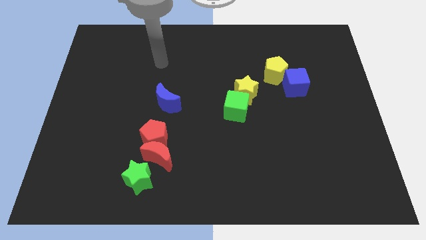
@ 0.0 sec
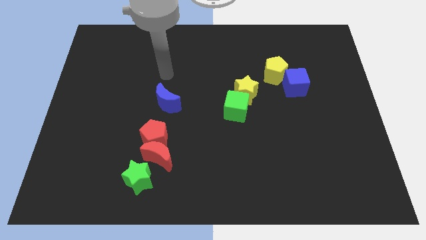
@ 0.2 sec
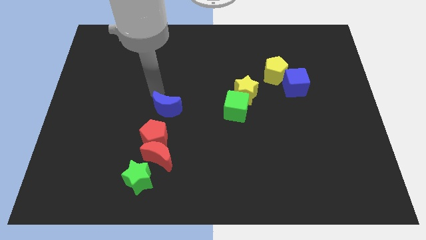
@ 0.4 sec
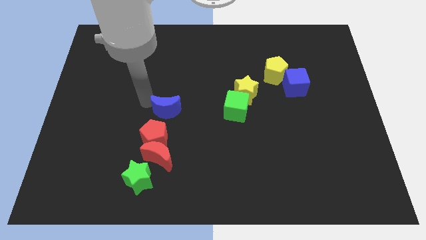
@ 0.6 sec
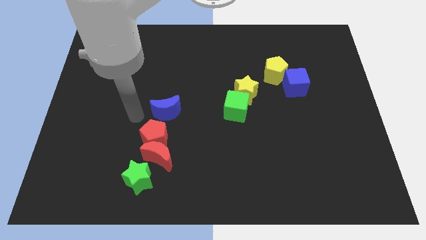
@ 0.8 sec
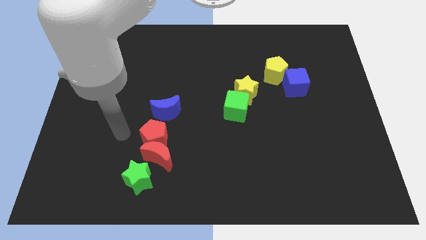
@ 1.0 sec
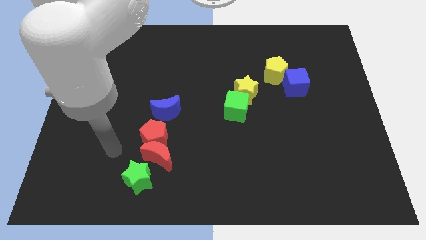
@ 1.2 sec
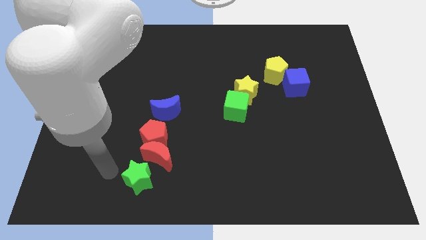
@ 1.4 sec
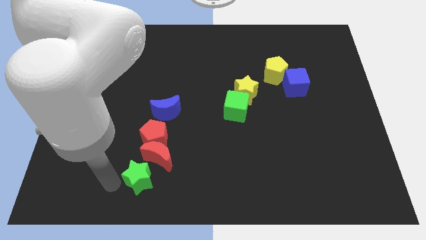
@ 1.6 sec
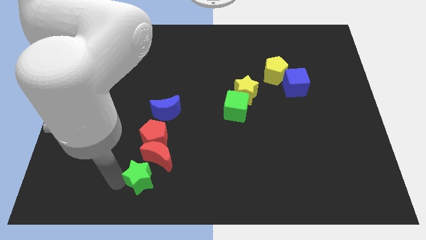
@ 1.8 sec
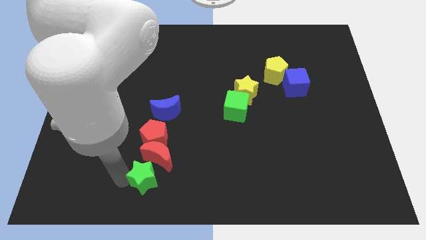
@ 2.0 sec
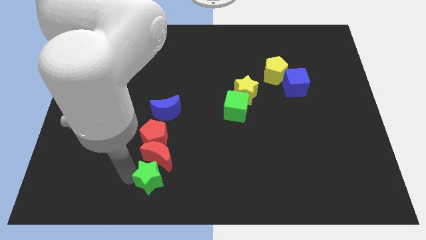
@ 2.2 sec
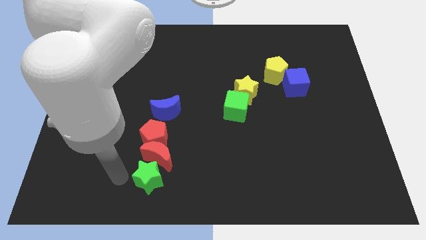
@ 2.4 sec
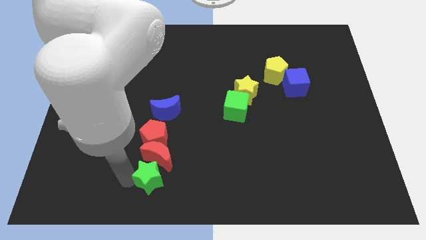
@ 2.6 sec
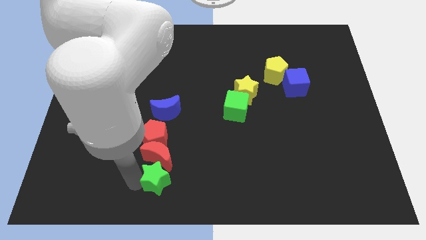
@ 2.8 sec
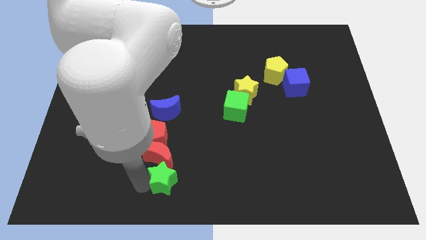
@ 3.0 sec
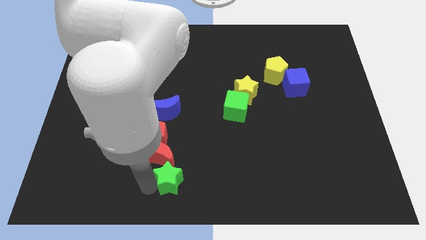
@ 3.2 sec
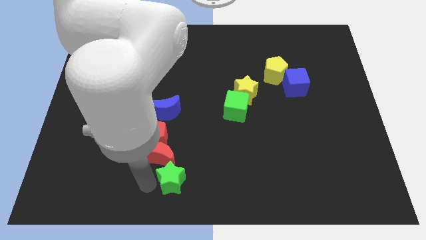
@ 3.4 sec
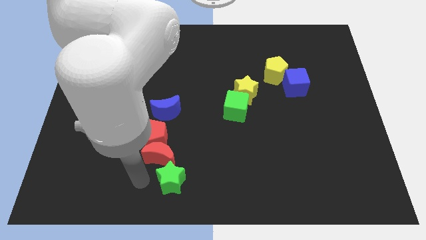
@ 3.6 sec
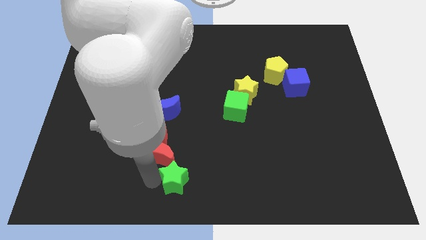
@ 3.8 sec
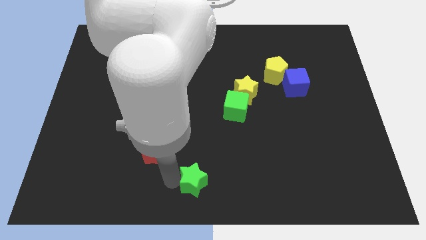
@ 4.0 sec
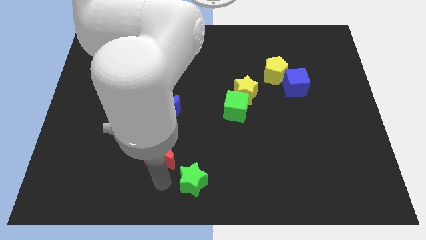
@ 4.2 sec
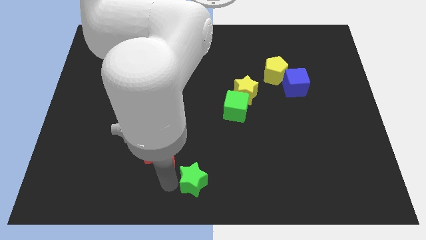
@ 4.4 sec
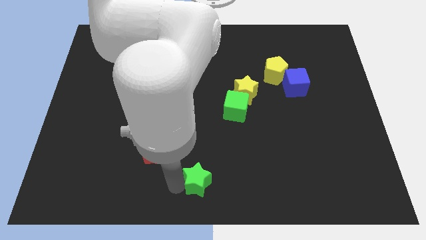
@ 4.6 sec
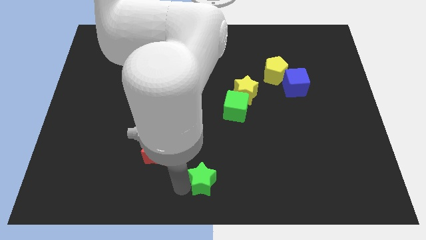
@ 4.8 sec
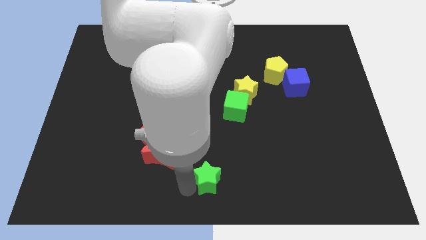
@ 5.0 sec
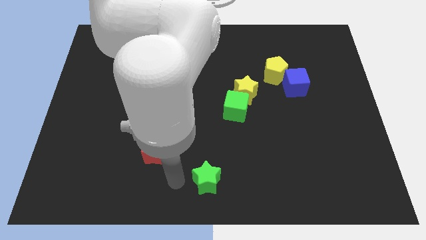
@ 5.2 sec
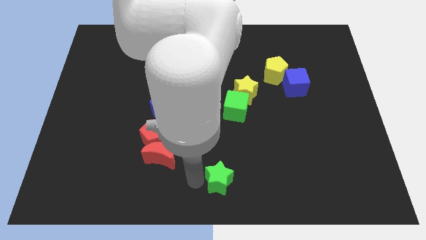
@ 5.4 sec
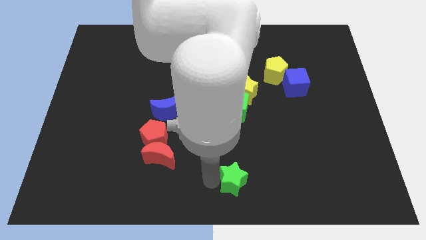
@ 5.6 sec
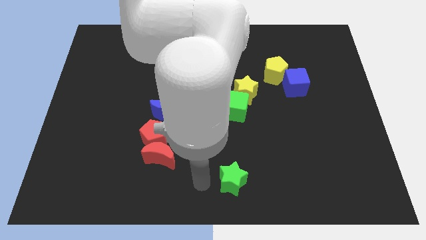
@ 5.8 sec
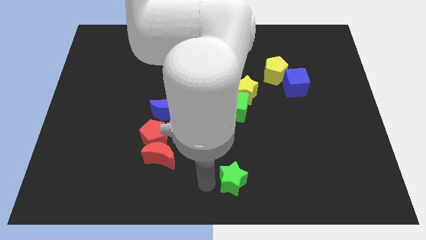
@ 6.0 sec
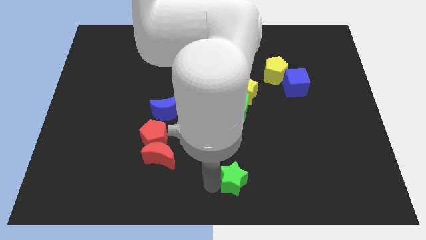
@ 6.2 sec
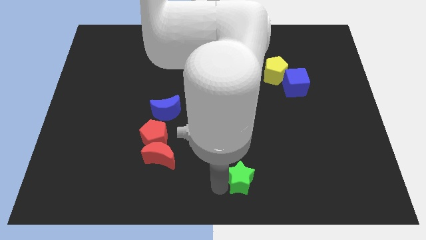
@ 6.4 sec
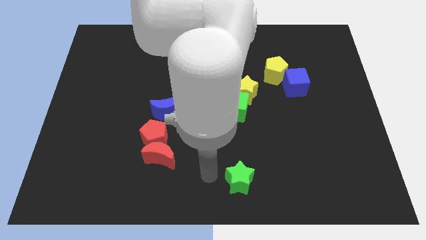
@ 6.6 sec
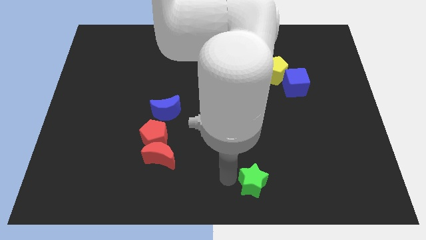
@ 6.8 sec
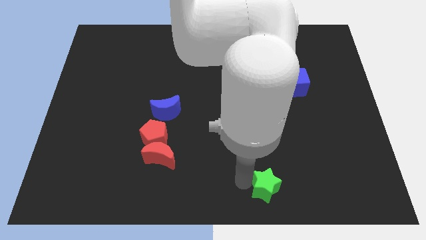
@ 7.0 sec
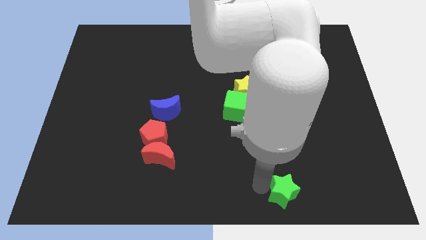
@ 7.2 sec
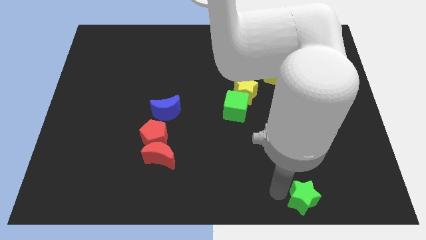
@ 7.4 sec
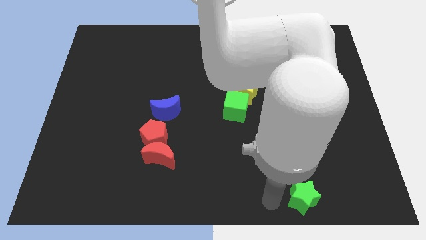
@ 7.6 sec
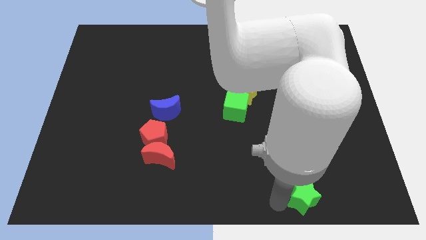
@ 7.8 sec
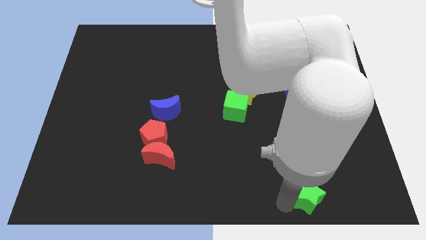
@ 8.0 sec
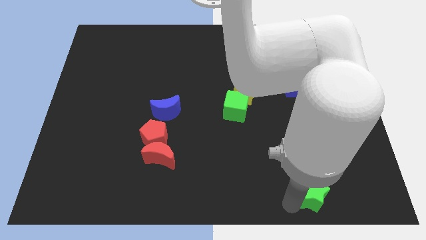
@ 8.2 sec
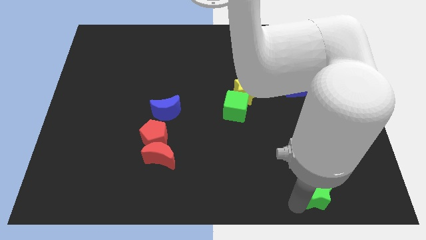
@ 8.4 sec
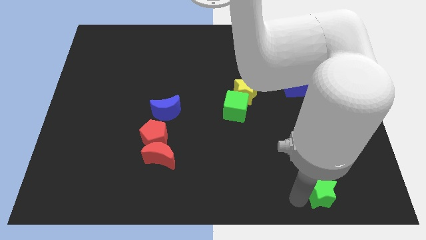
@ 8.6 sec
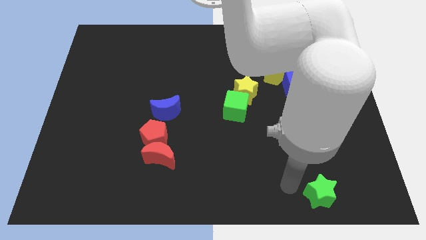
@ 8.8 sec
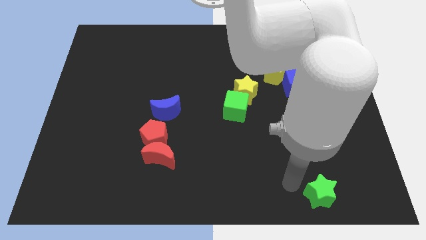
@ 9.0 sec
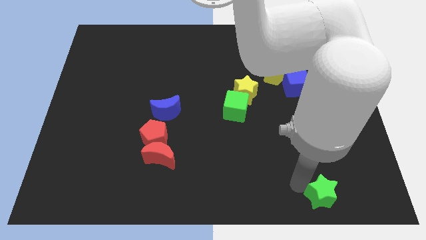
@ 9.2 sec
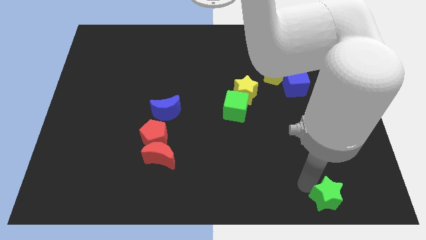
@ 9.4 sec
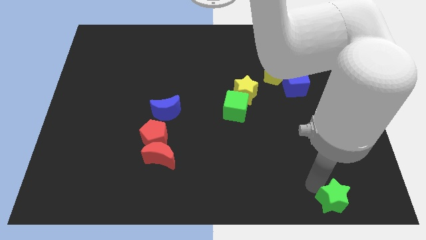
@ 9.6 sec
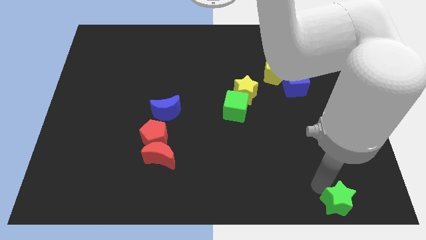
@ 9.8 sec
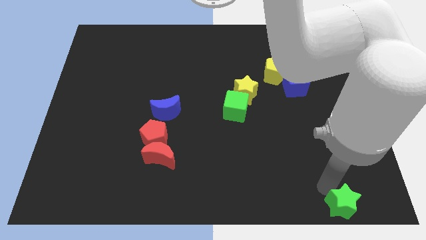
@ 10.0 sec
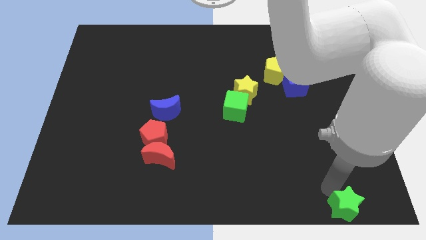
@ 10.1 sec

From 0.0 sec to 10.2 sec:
push the green star to the bottom right corner

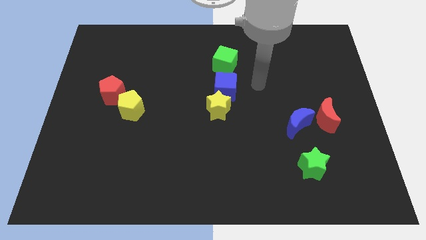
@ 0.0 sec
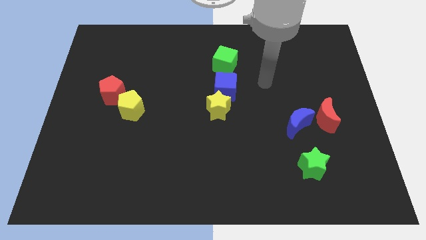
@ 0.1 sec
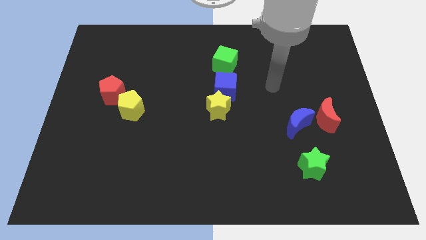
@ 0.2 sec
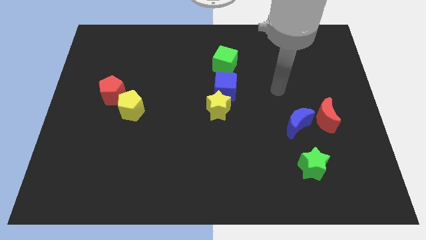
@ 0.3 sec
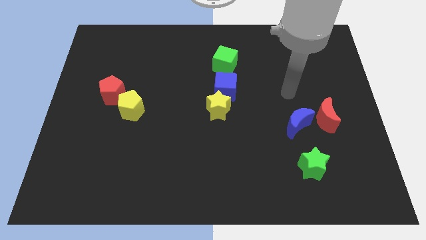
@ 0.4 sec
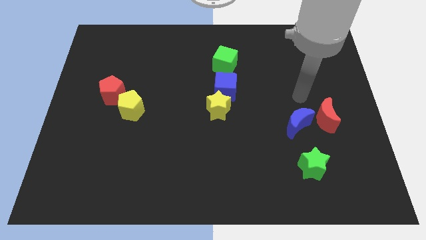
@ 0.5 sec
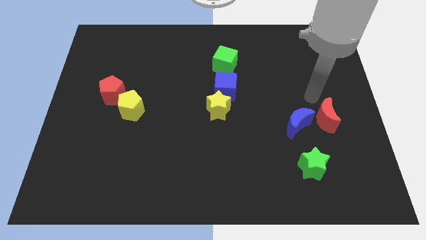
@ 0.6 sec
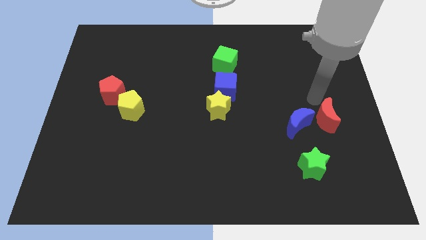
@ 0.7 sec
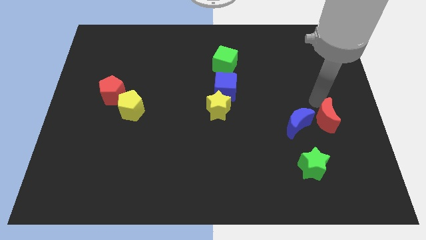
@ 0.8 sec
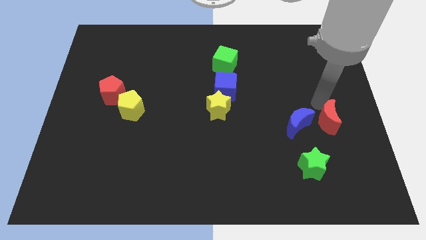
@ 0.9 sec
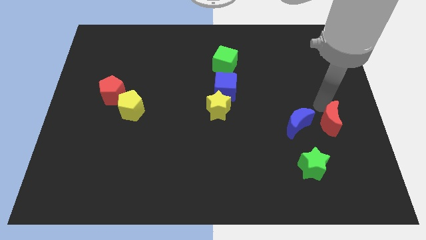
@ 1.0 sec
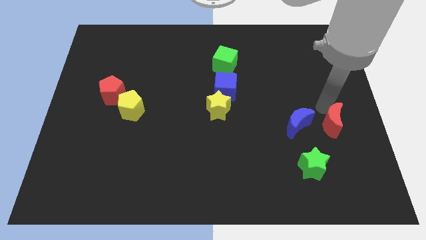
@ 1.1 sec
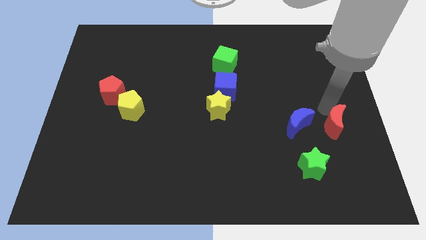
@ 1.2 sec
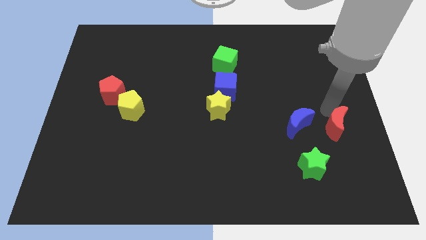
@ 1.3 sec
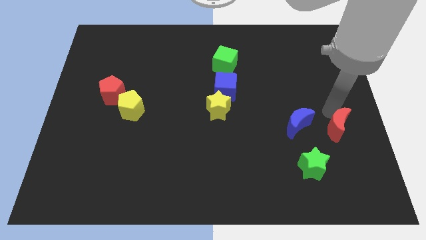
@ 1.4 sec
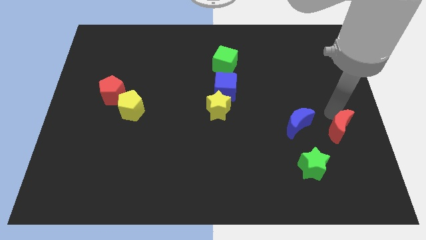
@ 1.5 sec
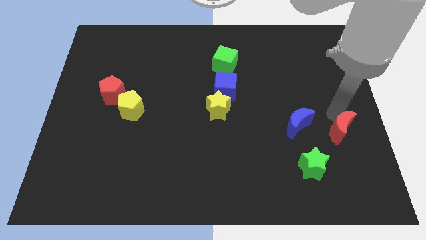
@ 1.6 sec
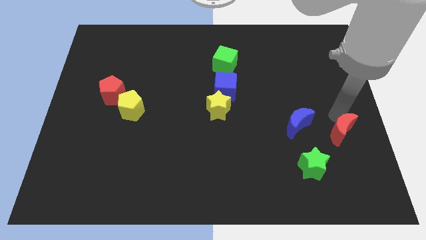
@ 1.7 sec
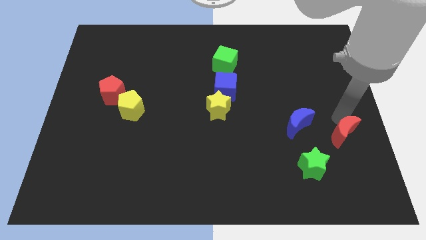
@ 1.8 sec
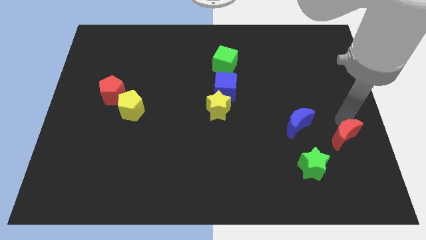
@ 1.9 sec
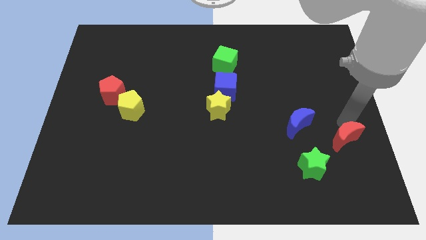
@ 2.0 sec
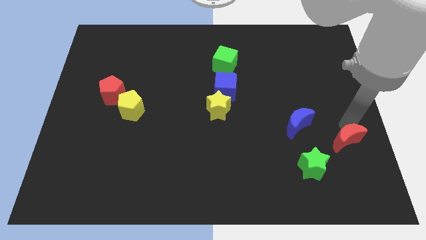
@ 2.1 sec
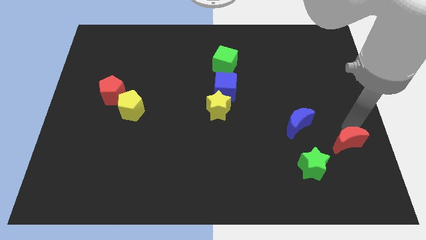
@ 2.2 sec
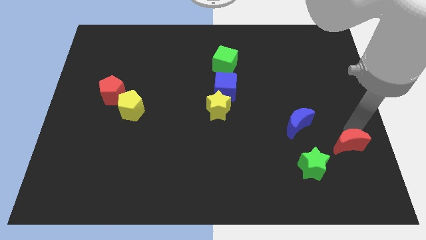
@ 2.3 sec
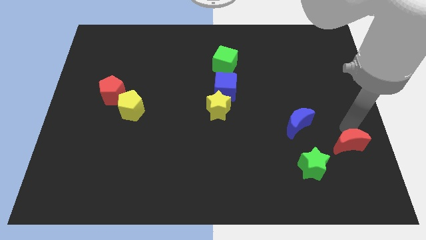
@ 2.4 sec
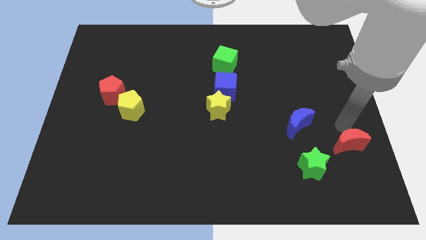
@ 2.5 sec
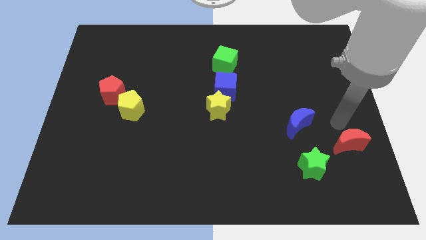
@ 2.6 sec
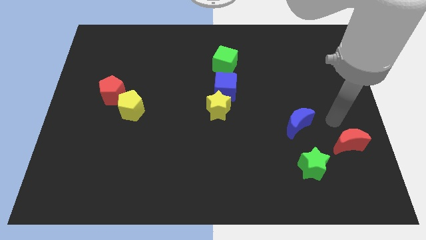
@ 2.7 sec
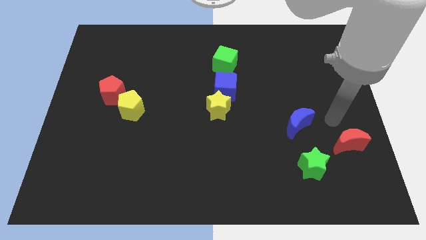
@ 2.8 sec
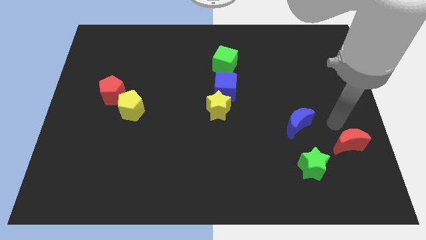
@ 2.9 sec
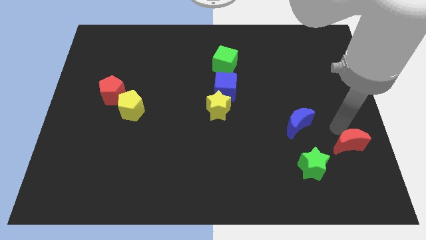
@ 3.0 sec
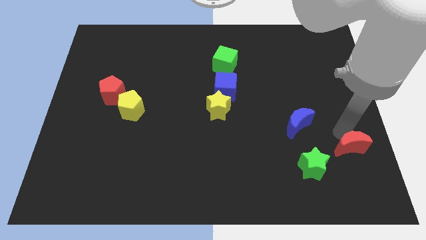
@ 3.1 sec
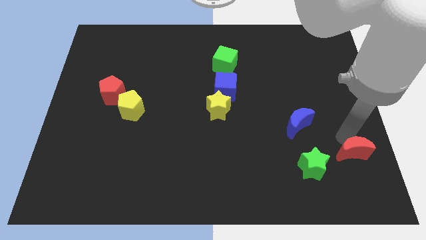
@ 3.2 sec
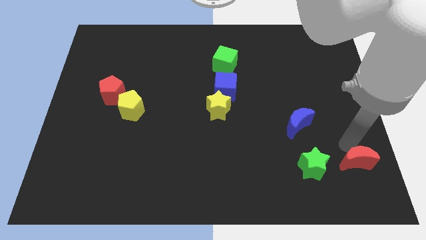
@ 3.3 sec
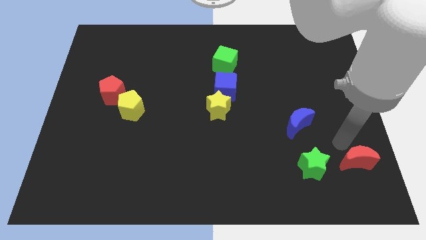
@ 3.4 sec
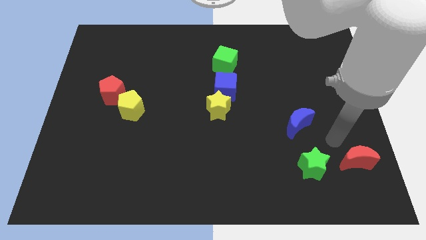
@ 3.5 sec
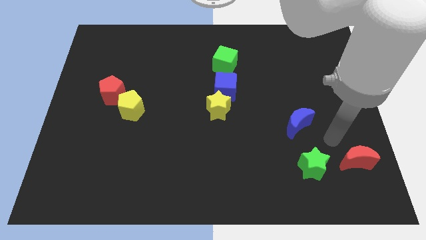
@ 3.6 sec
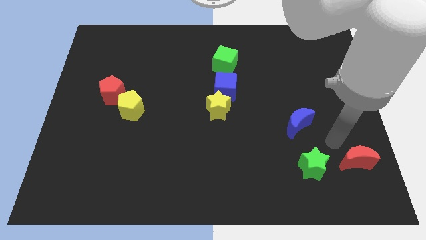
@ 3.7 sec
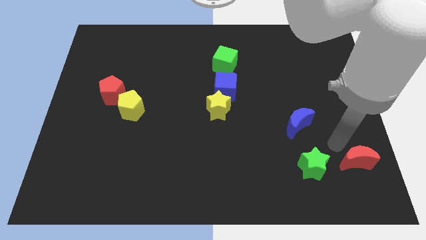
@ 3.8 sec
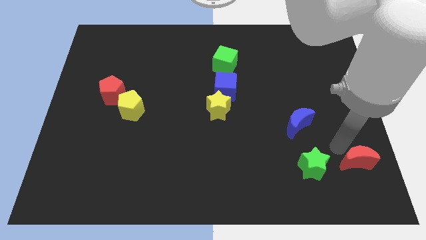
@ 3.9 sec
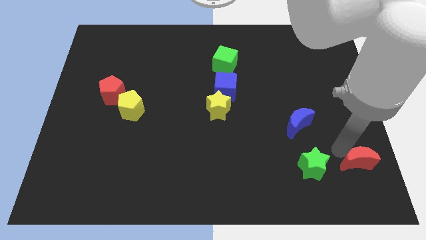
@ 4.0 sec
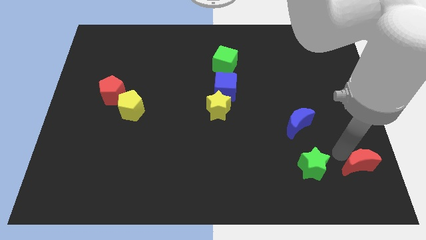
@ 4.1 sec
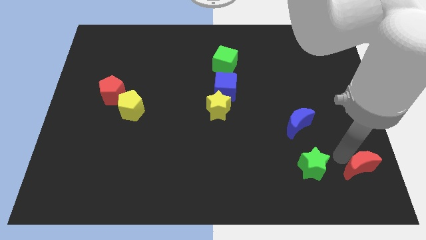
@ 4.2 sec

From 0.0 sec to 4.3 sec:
slide the red moon to the lower right corner
